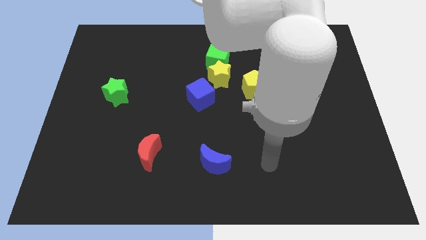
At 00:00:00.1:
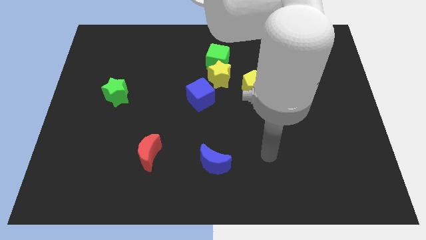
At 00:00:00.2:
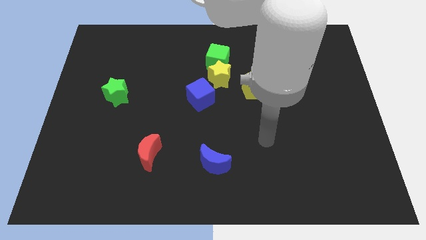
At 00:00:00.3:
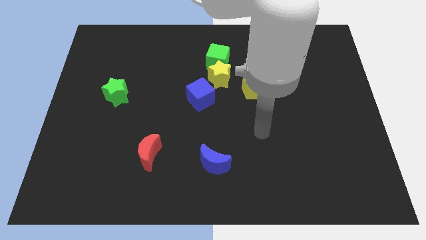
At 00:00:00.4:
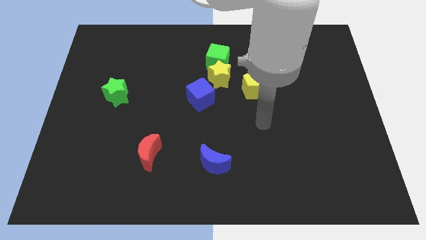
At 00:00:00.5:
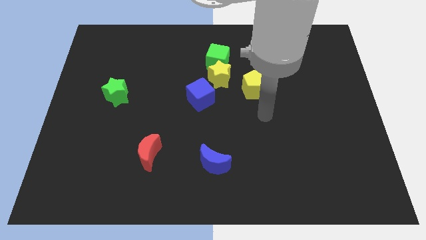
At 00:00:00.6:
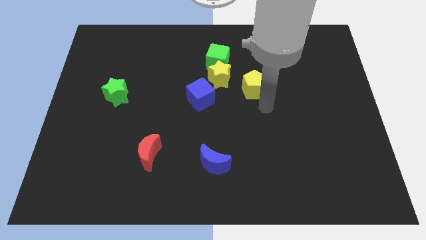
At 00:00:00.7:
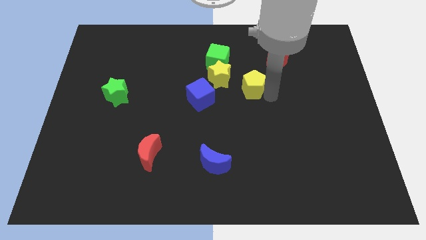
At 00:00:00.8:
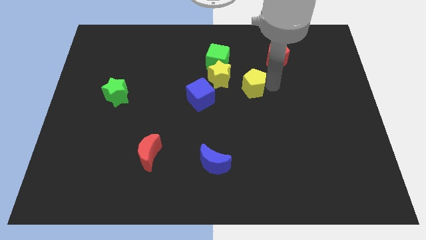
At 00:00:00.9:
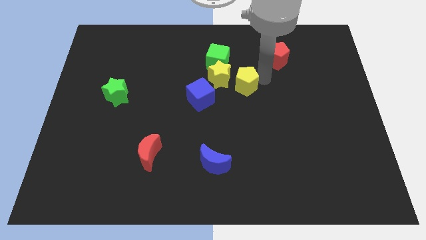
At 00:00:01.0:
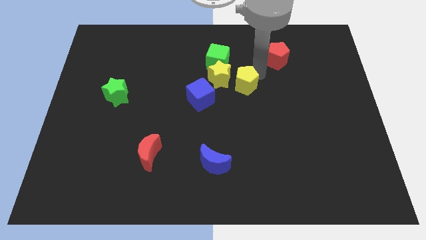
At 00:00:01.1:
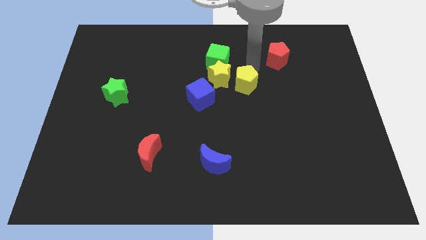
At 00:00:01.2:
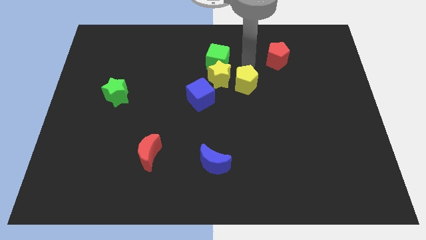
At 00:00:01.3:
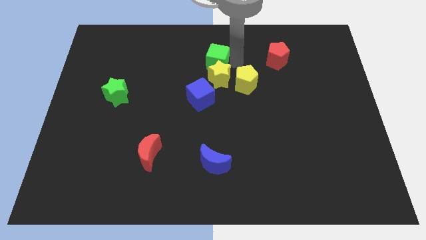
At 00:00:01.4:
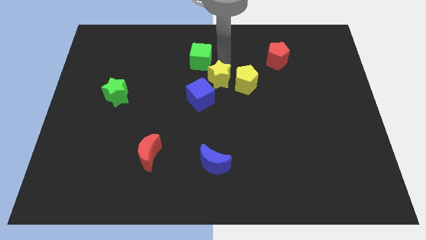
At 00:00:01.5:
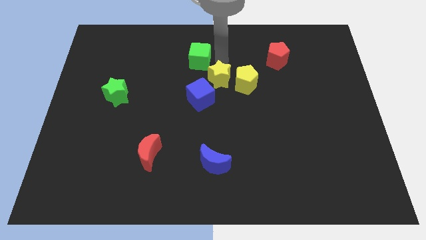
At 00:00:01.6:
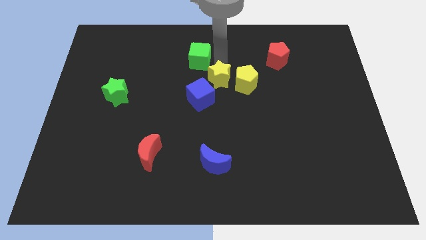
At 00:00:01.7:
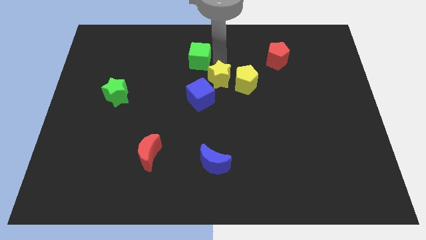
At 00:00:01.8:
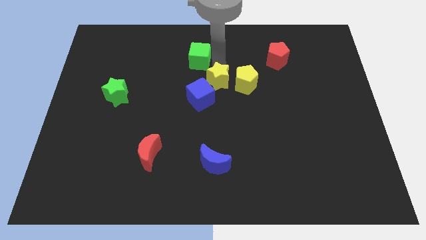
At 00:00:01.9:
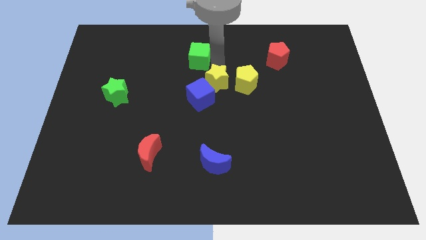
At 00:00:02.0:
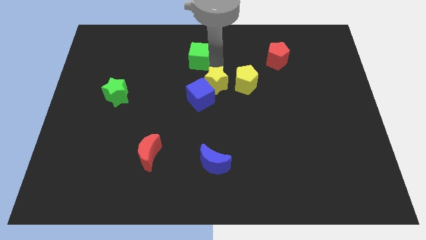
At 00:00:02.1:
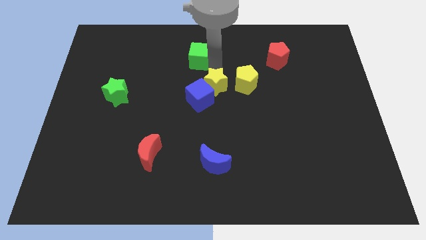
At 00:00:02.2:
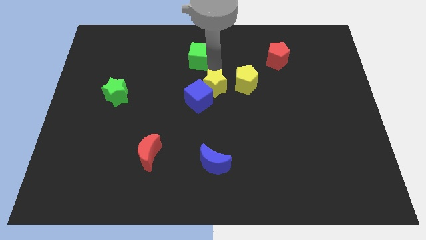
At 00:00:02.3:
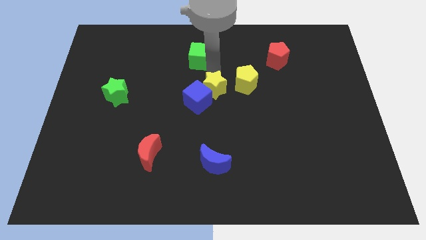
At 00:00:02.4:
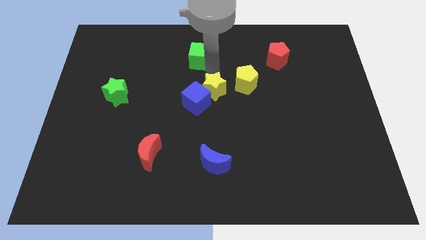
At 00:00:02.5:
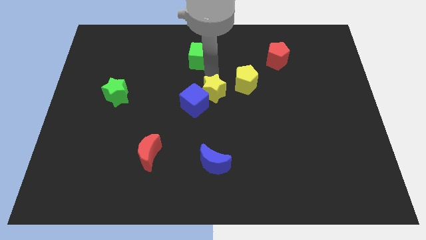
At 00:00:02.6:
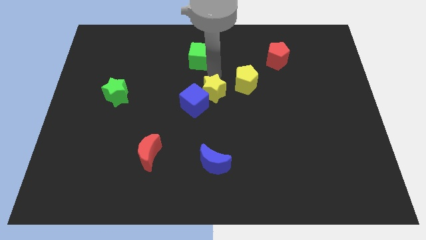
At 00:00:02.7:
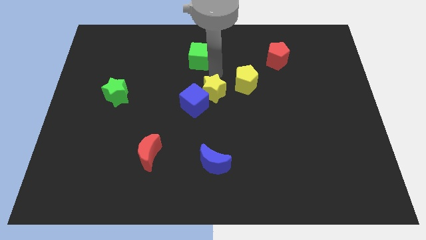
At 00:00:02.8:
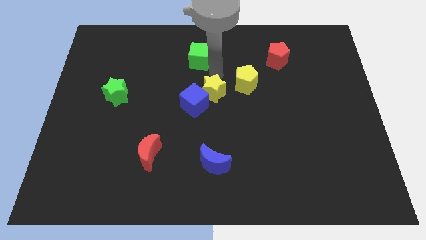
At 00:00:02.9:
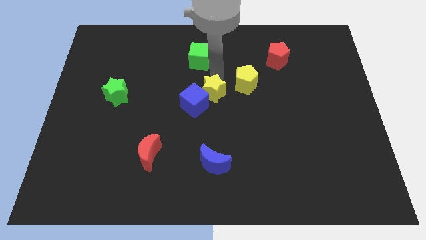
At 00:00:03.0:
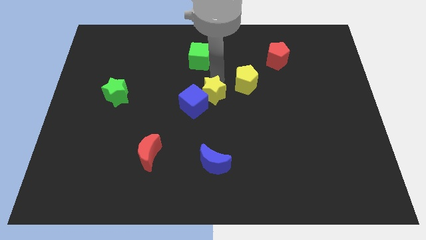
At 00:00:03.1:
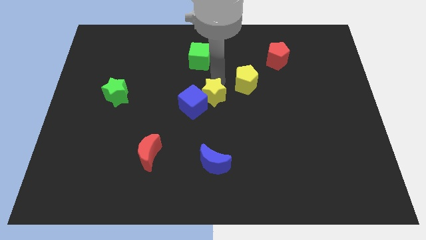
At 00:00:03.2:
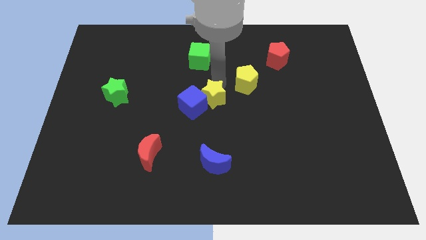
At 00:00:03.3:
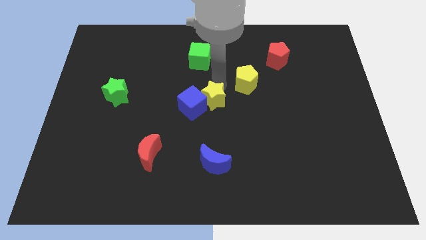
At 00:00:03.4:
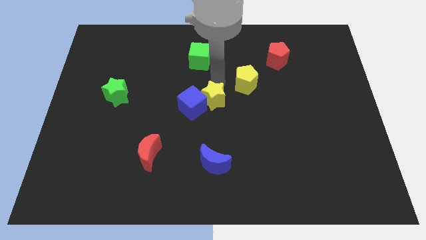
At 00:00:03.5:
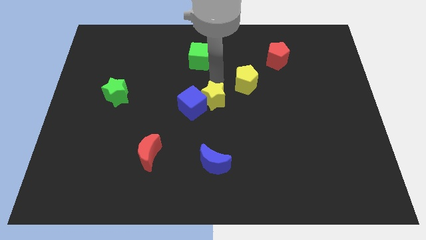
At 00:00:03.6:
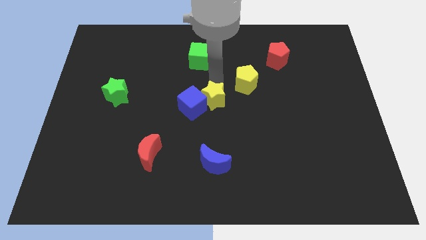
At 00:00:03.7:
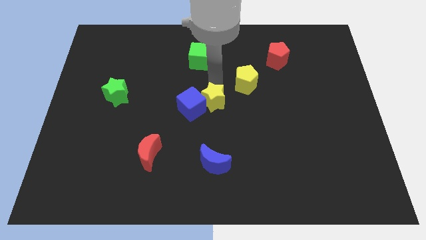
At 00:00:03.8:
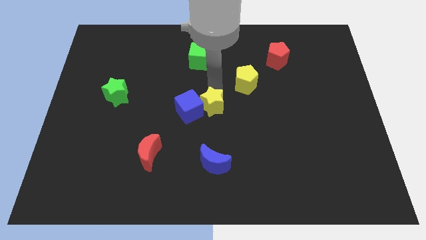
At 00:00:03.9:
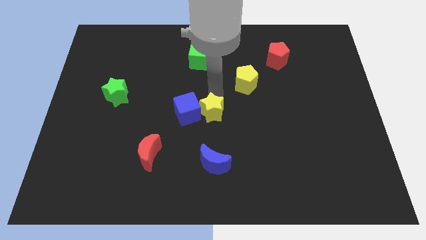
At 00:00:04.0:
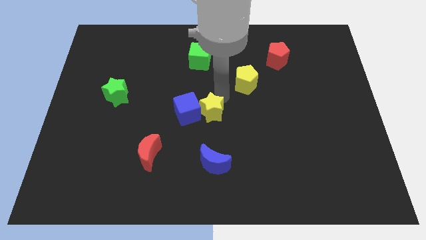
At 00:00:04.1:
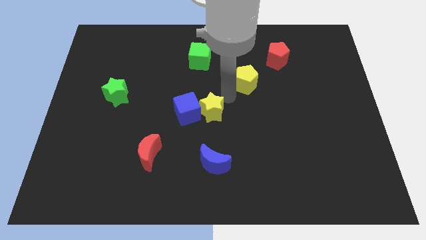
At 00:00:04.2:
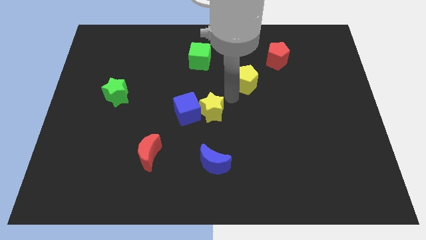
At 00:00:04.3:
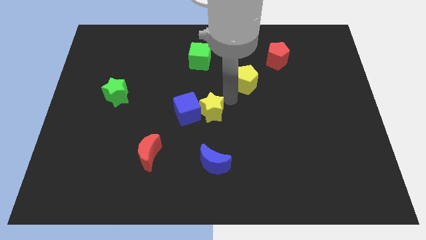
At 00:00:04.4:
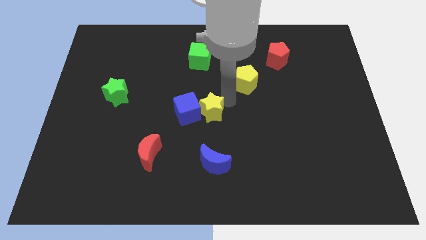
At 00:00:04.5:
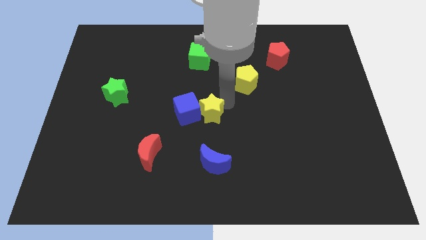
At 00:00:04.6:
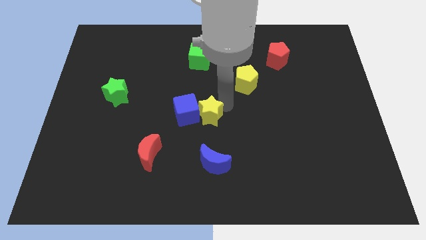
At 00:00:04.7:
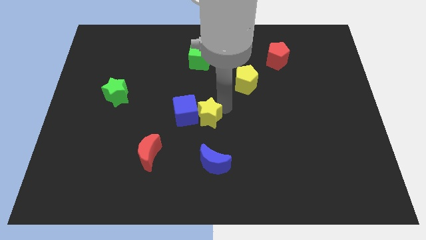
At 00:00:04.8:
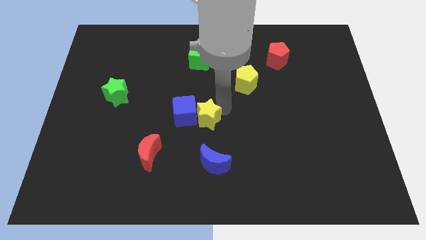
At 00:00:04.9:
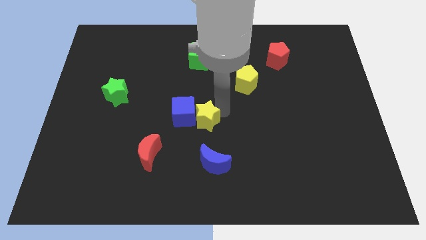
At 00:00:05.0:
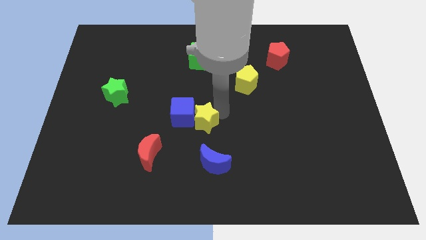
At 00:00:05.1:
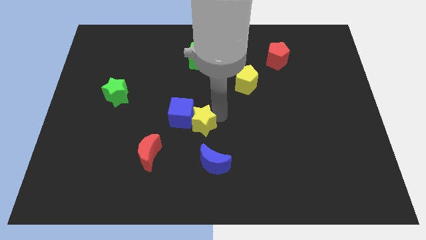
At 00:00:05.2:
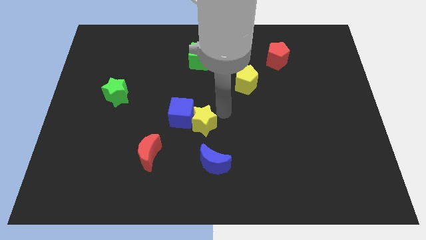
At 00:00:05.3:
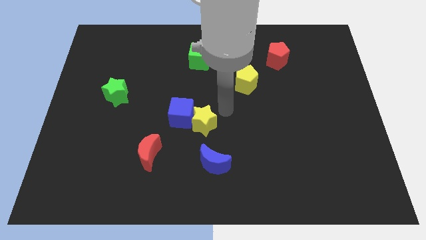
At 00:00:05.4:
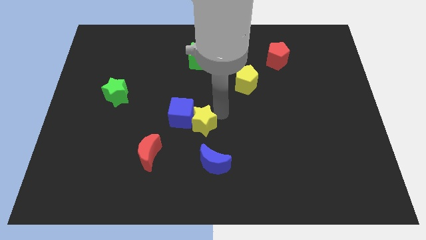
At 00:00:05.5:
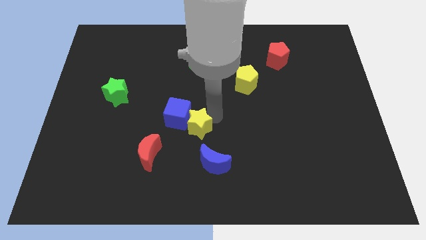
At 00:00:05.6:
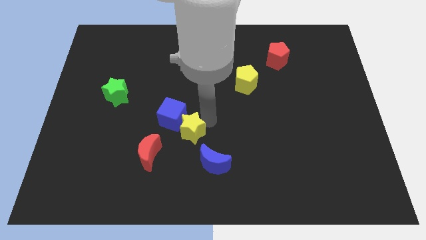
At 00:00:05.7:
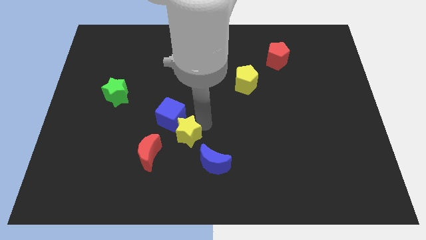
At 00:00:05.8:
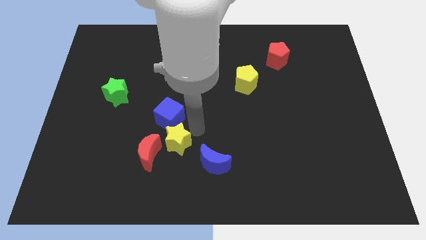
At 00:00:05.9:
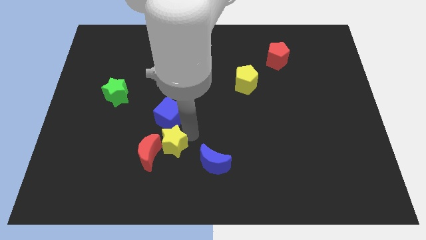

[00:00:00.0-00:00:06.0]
put the yellow star towards the red moon
